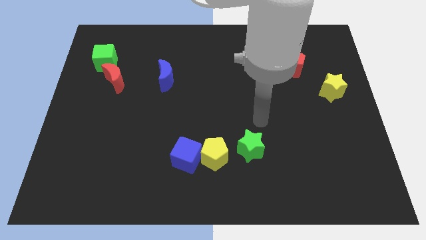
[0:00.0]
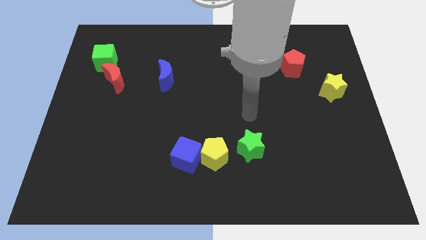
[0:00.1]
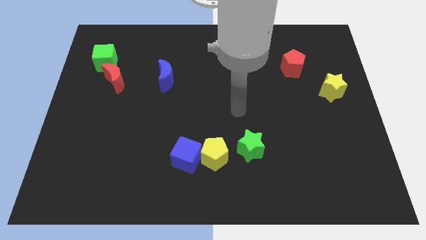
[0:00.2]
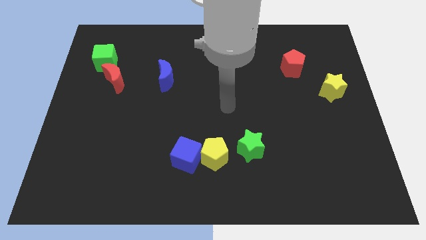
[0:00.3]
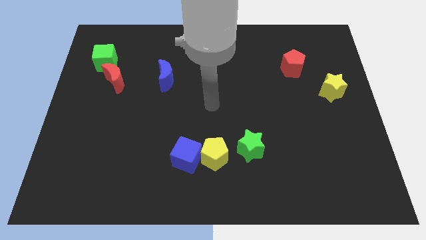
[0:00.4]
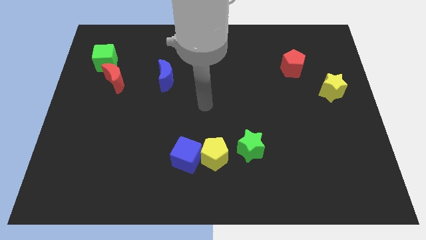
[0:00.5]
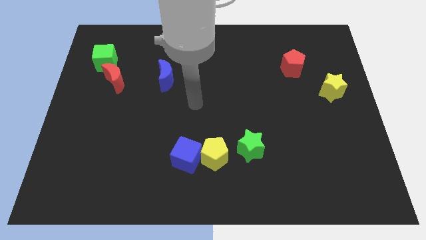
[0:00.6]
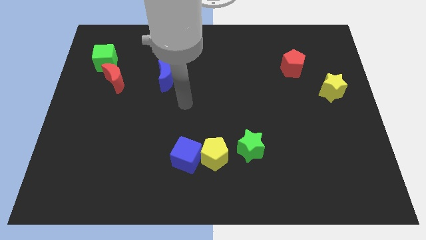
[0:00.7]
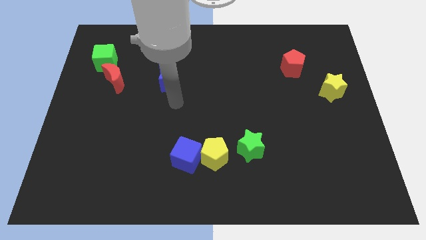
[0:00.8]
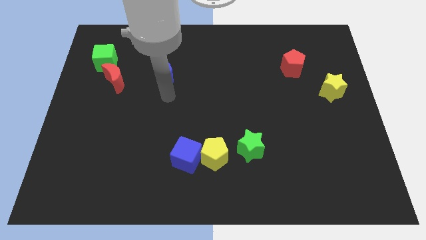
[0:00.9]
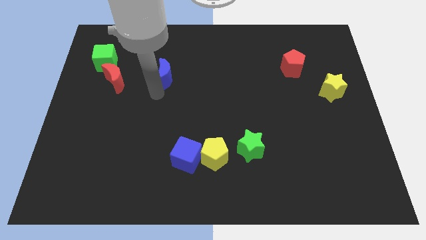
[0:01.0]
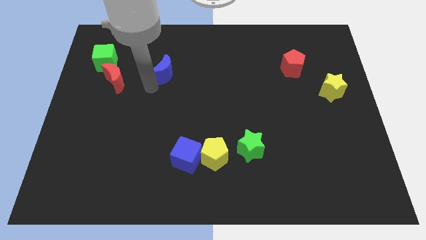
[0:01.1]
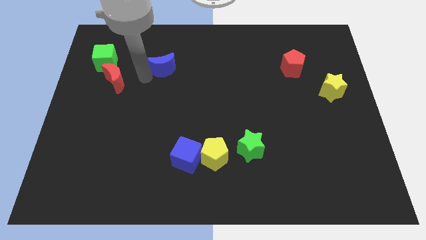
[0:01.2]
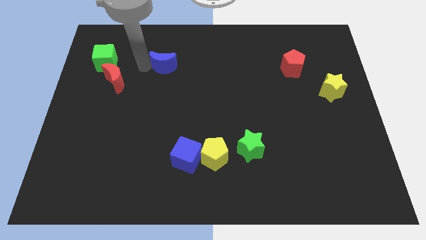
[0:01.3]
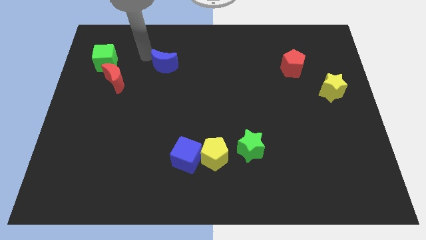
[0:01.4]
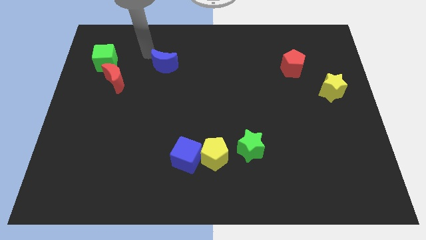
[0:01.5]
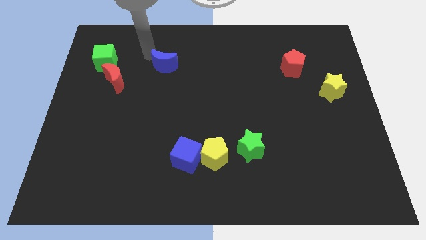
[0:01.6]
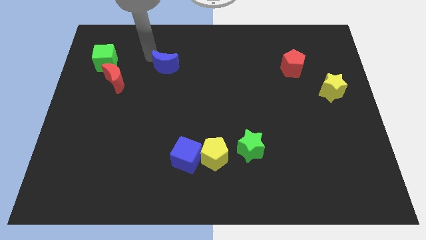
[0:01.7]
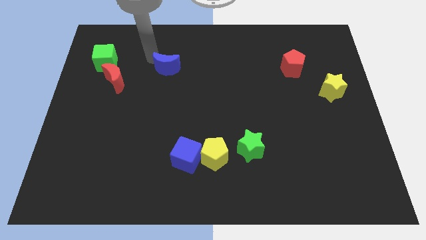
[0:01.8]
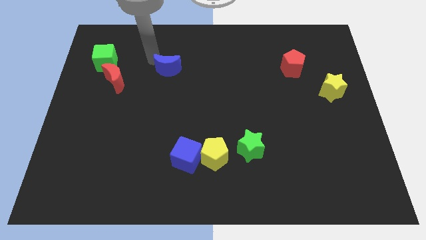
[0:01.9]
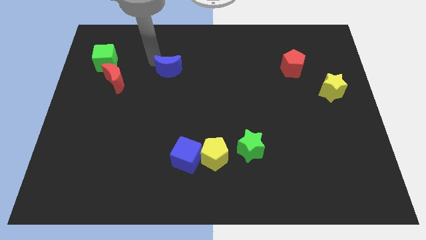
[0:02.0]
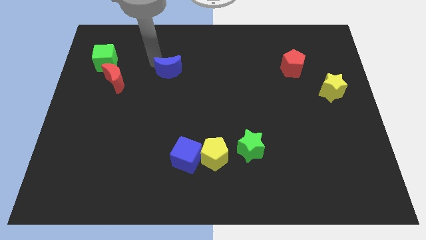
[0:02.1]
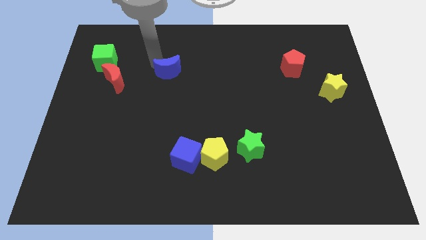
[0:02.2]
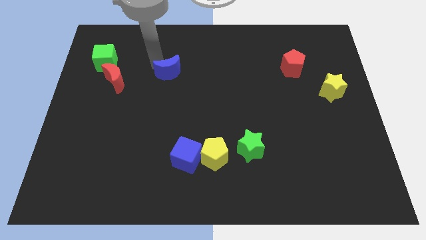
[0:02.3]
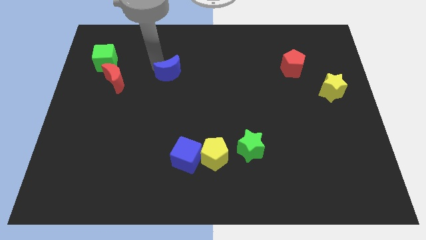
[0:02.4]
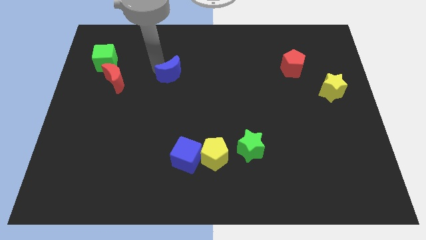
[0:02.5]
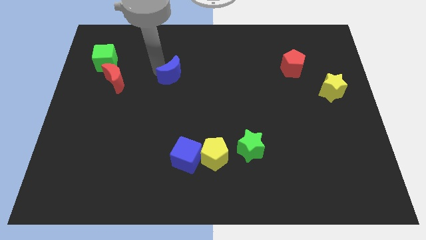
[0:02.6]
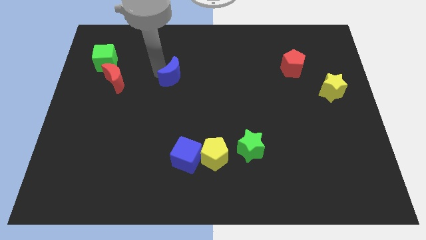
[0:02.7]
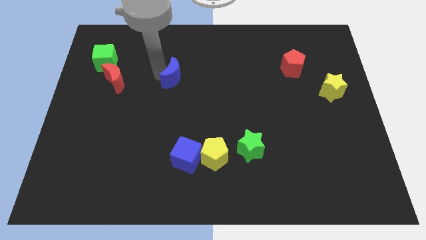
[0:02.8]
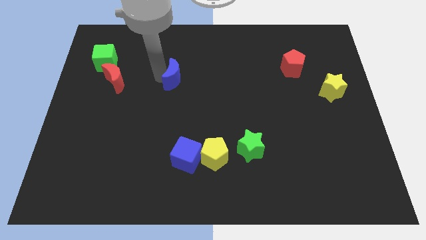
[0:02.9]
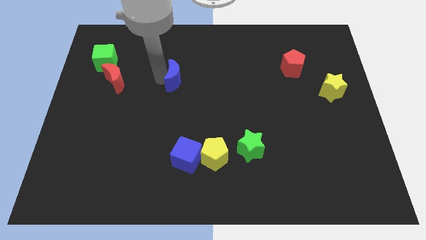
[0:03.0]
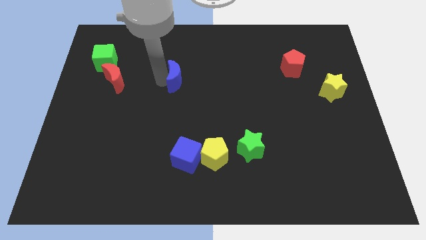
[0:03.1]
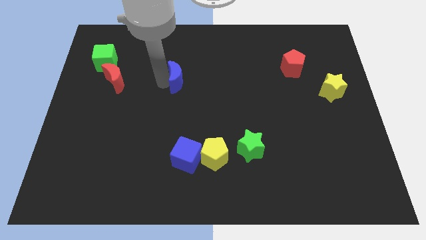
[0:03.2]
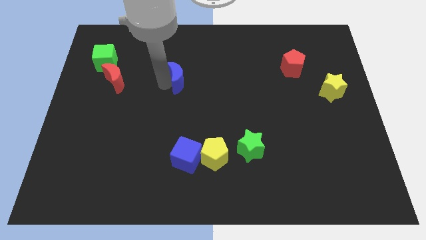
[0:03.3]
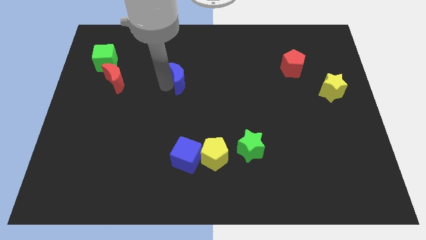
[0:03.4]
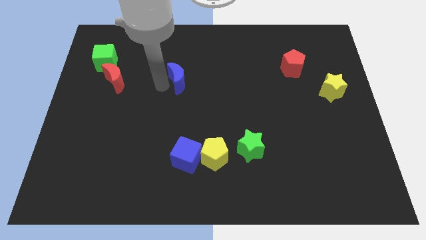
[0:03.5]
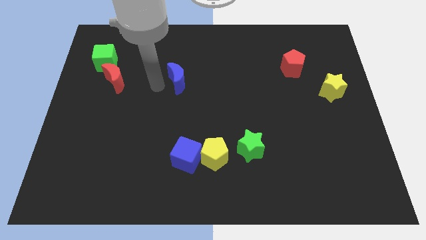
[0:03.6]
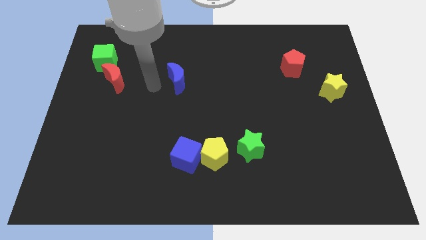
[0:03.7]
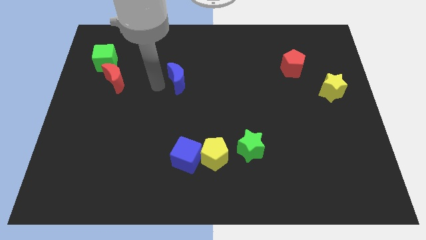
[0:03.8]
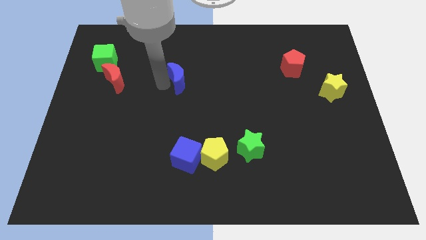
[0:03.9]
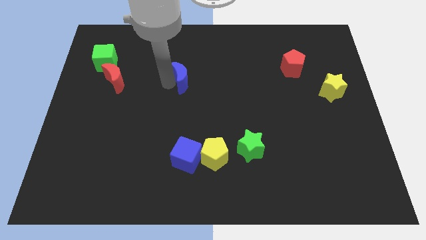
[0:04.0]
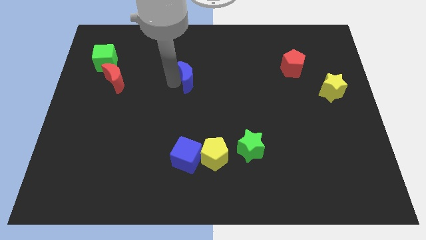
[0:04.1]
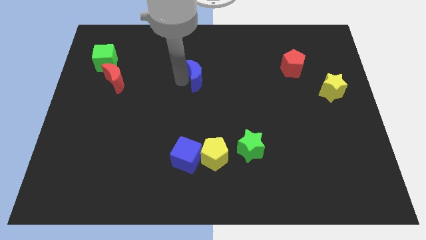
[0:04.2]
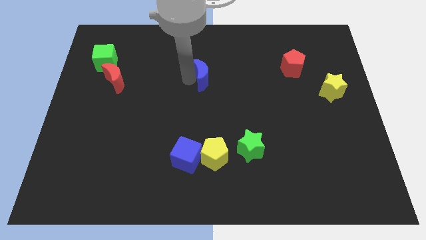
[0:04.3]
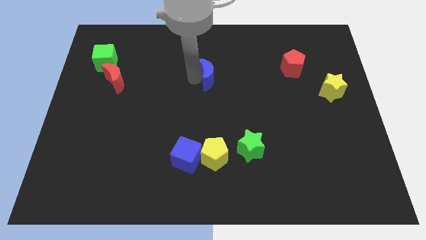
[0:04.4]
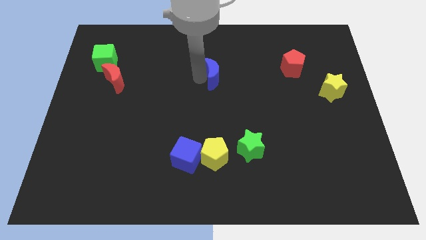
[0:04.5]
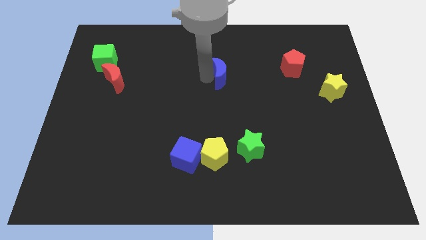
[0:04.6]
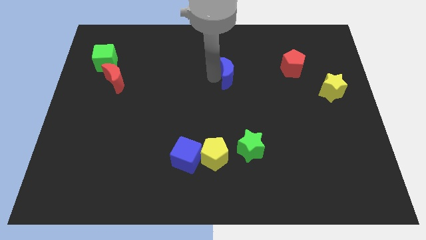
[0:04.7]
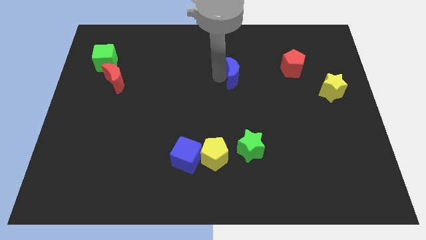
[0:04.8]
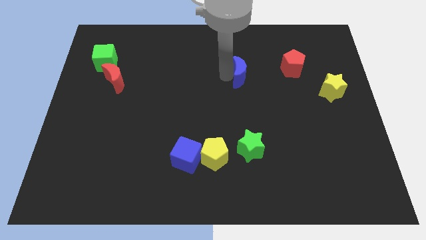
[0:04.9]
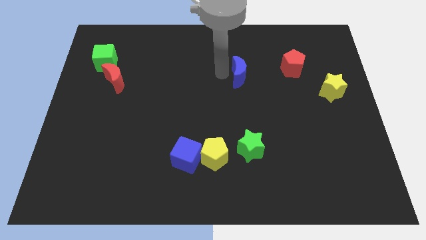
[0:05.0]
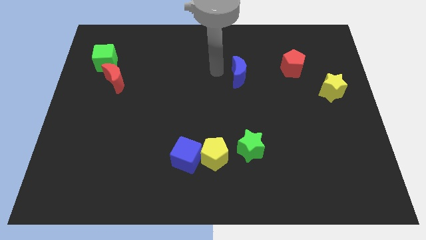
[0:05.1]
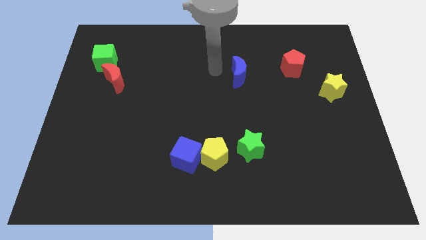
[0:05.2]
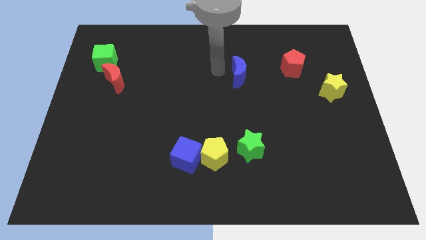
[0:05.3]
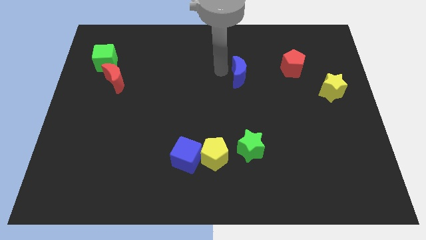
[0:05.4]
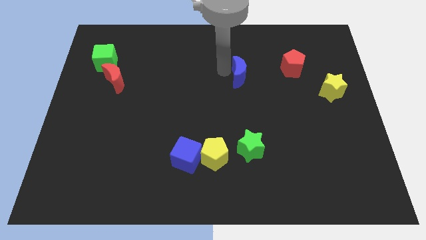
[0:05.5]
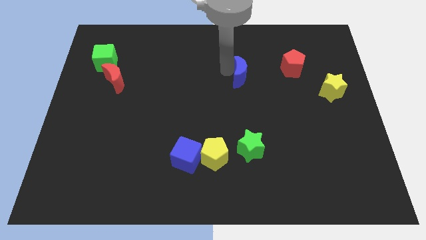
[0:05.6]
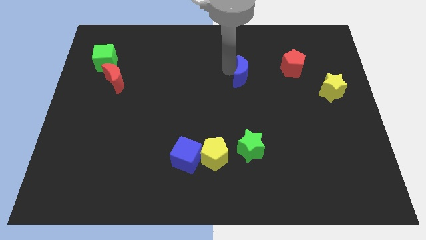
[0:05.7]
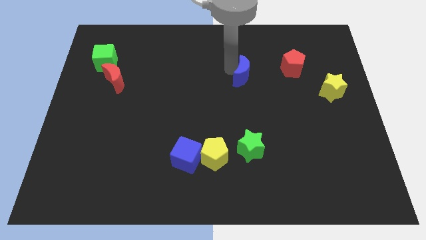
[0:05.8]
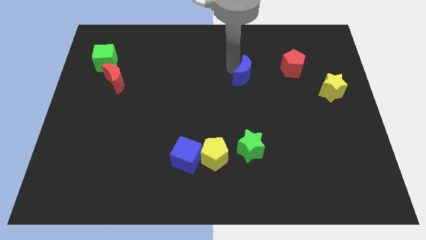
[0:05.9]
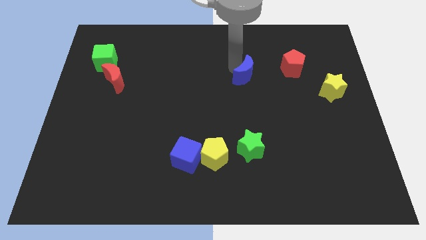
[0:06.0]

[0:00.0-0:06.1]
slide the blue moon to the right

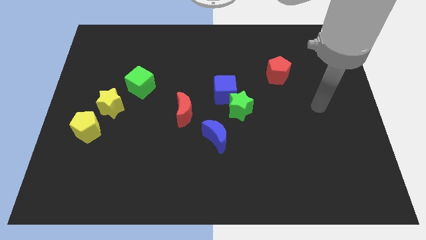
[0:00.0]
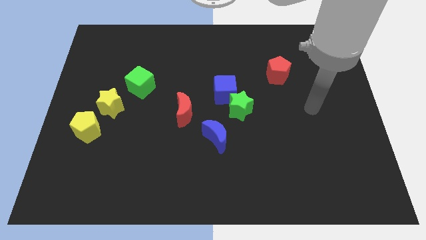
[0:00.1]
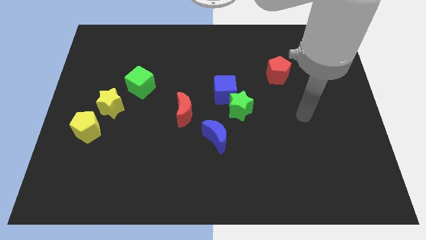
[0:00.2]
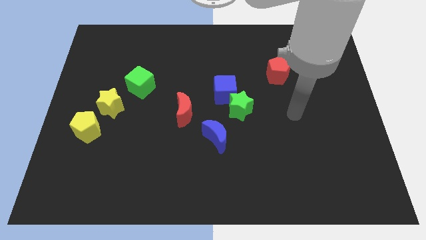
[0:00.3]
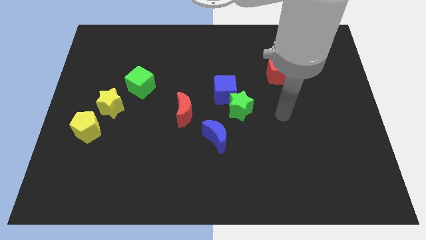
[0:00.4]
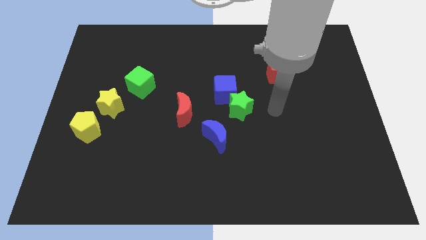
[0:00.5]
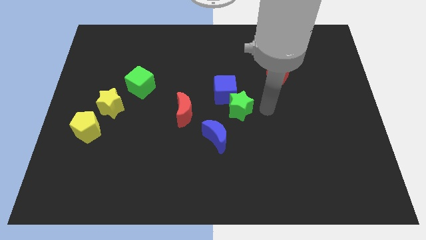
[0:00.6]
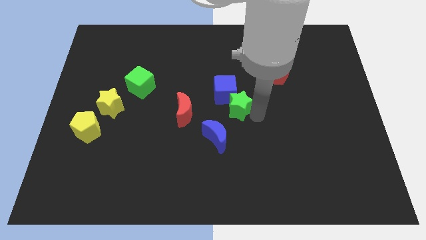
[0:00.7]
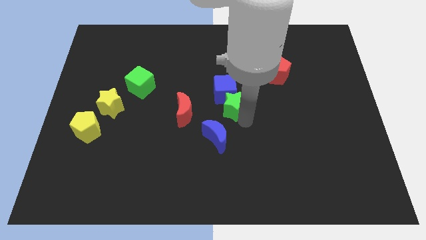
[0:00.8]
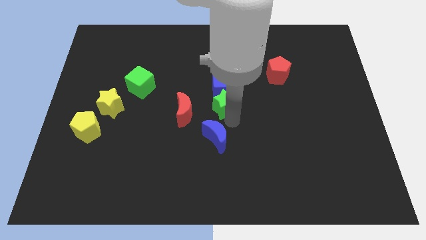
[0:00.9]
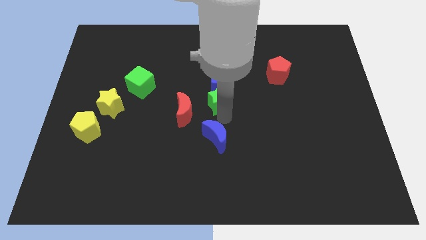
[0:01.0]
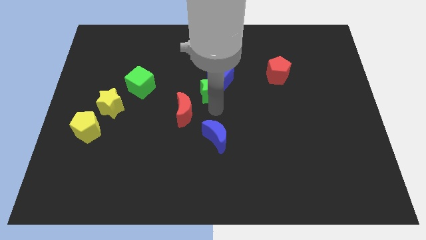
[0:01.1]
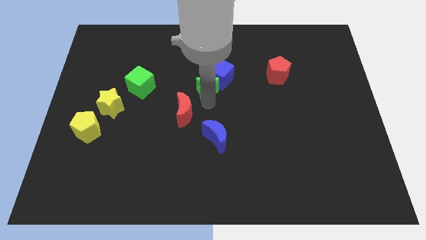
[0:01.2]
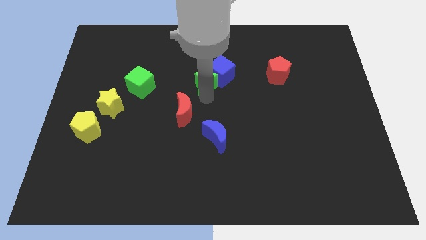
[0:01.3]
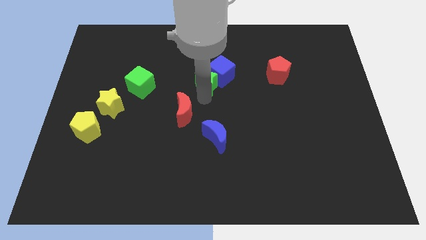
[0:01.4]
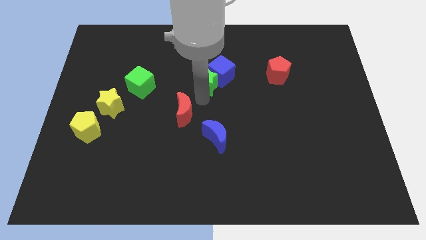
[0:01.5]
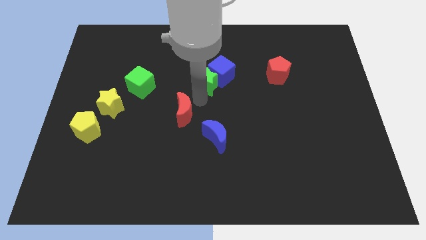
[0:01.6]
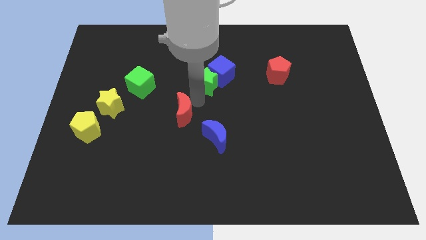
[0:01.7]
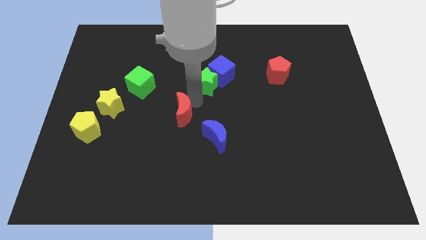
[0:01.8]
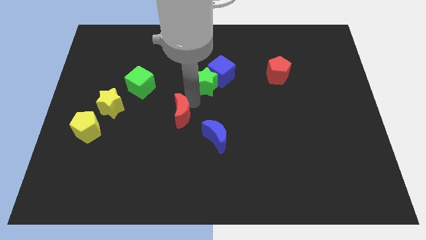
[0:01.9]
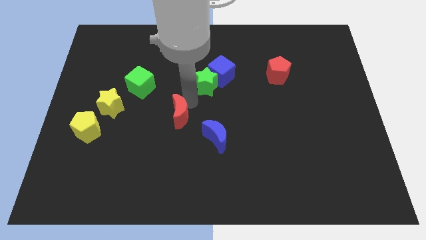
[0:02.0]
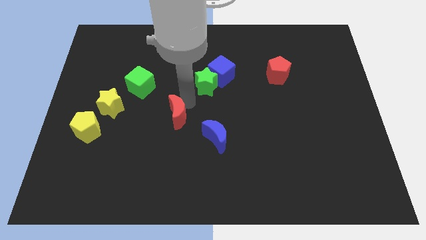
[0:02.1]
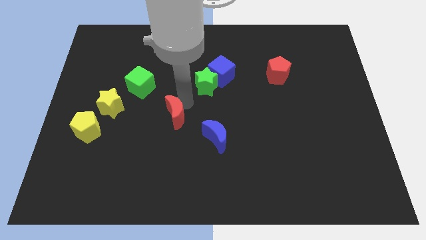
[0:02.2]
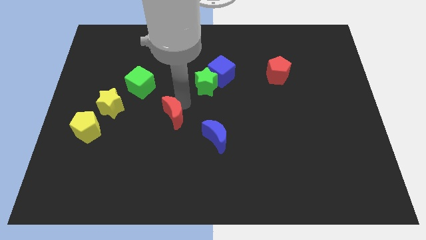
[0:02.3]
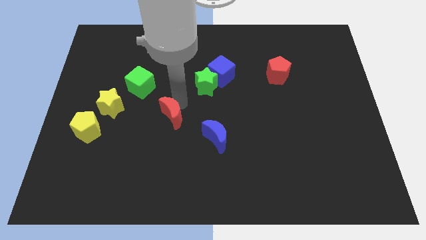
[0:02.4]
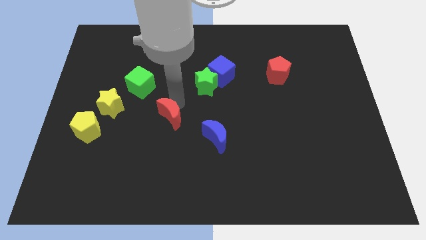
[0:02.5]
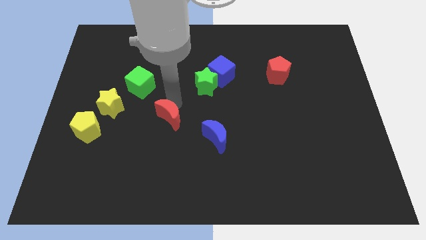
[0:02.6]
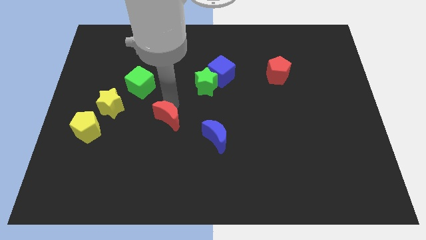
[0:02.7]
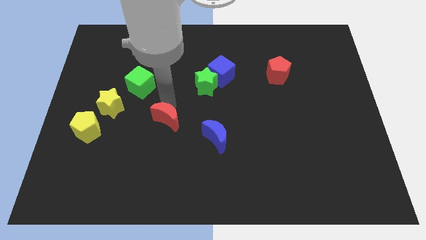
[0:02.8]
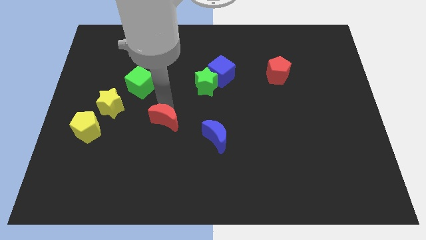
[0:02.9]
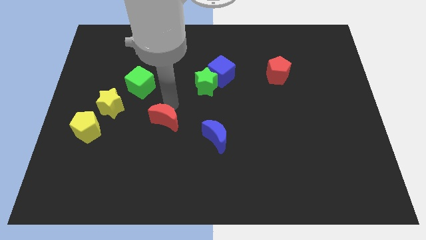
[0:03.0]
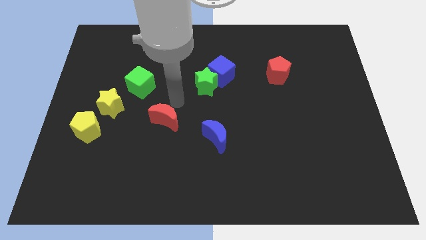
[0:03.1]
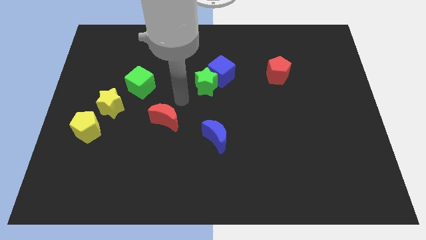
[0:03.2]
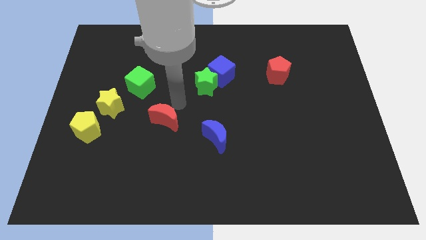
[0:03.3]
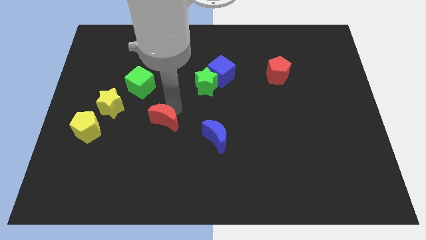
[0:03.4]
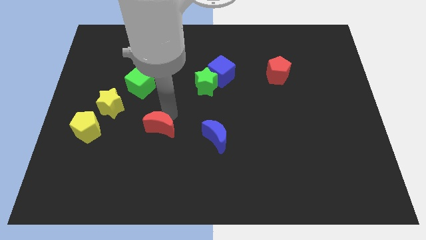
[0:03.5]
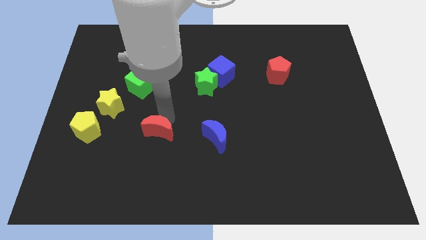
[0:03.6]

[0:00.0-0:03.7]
move the red moon downwards and then left a little
